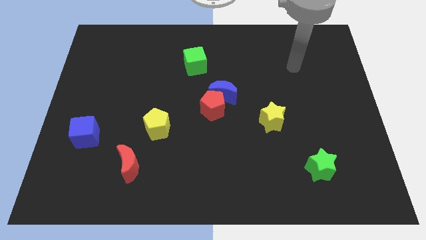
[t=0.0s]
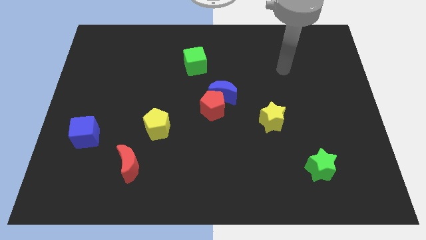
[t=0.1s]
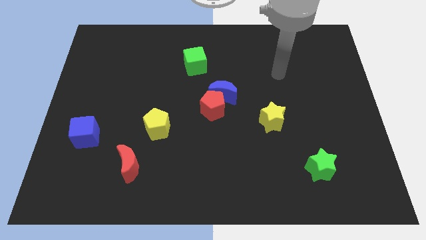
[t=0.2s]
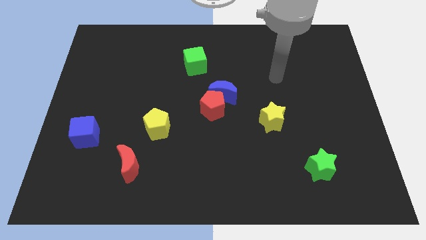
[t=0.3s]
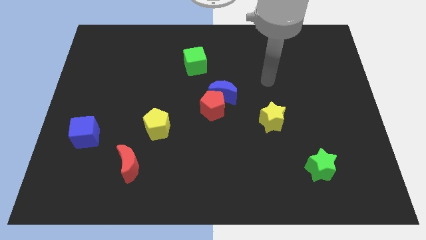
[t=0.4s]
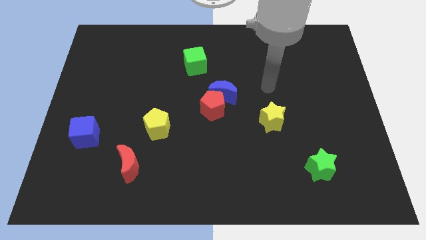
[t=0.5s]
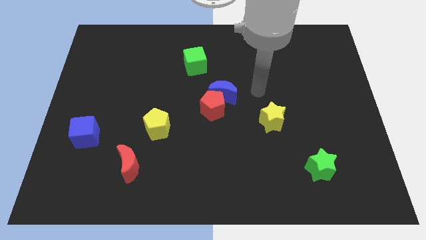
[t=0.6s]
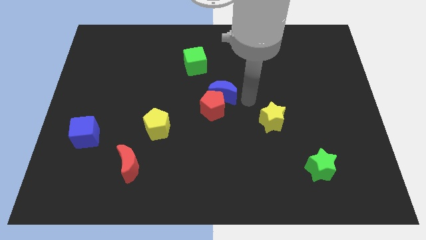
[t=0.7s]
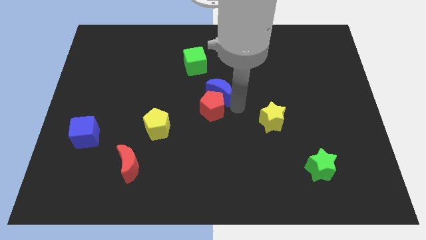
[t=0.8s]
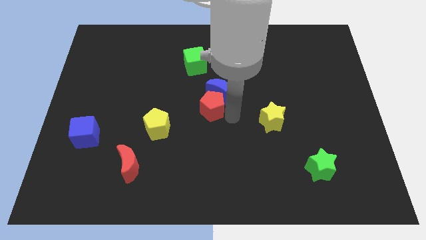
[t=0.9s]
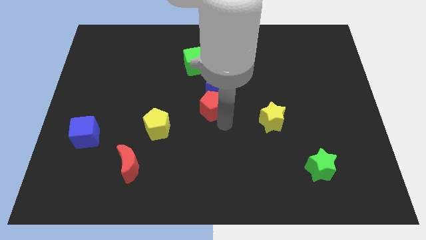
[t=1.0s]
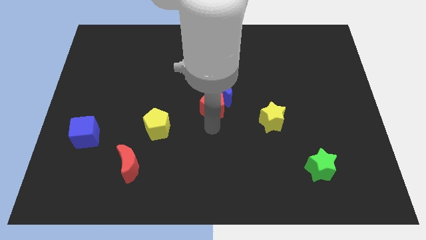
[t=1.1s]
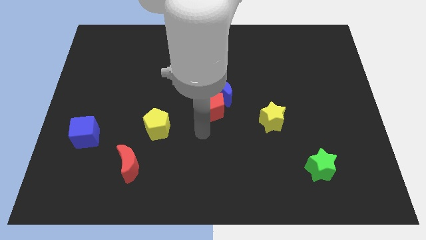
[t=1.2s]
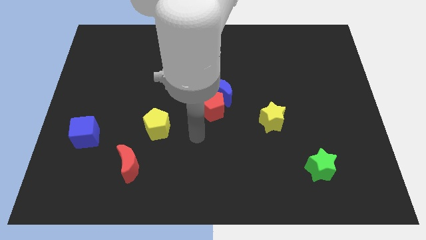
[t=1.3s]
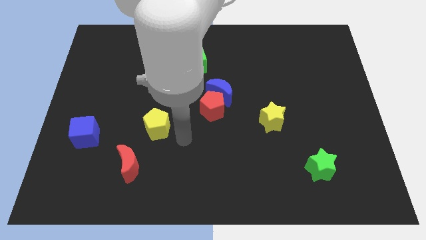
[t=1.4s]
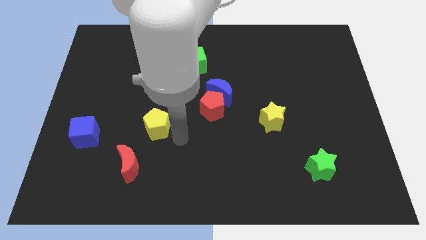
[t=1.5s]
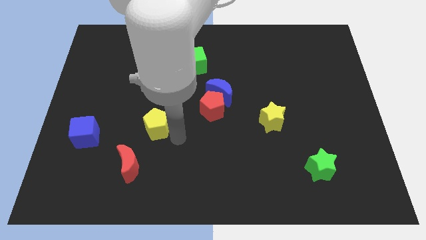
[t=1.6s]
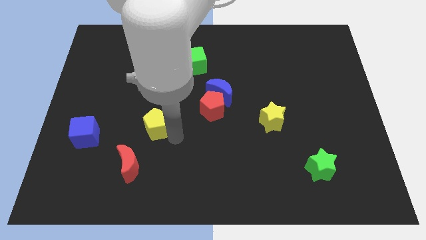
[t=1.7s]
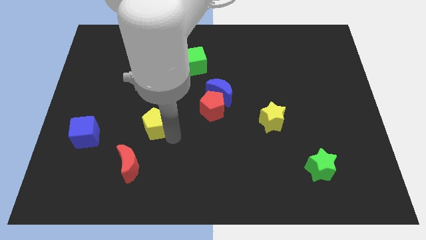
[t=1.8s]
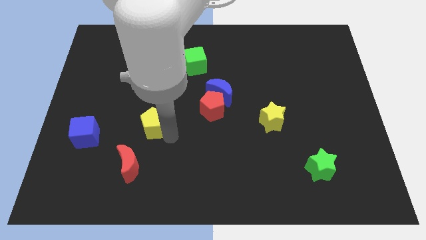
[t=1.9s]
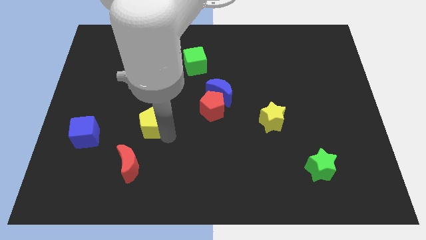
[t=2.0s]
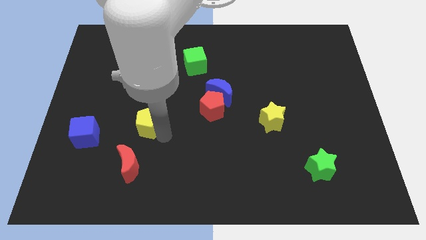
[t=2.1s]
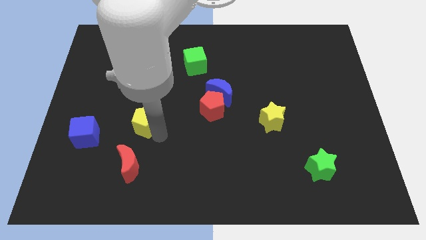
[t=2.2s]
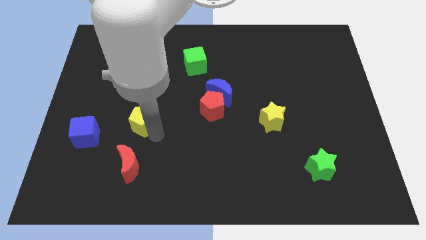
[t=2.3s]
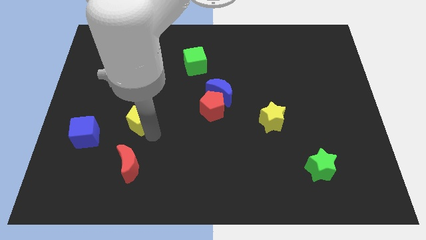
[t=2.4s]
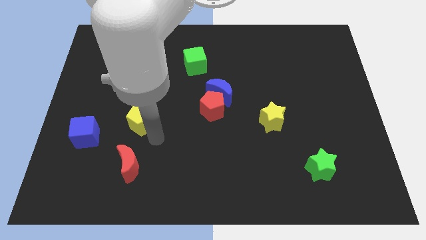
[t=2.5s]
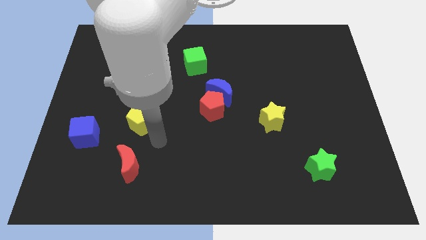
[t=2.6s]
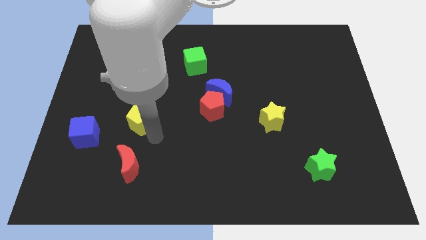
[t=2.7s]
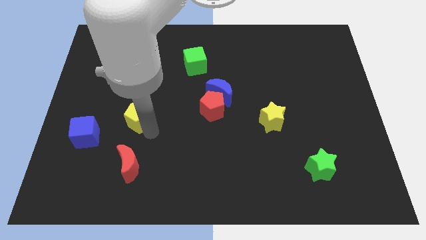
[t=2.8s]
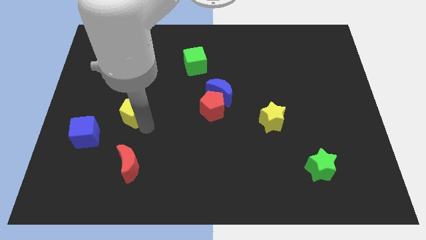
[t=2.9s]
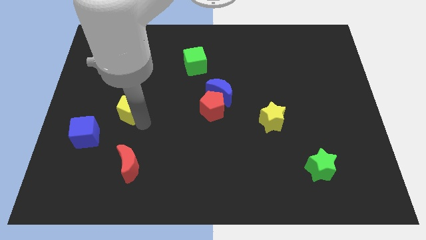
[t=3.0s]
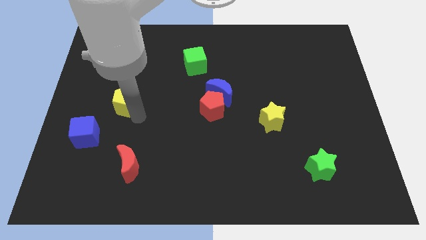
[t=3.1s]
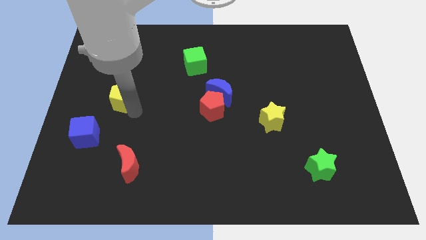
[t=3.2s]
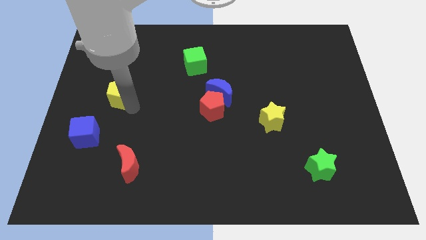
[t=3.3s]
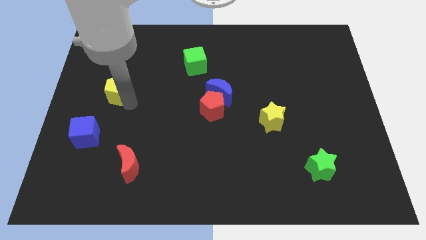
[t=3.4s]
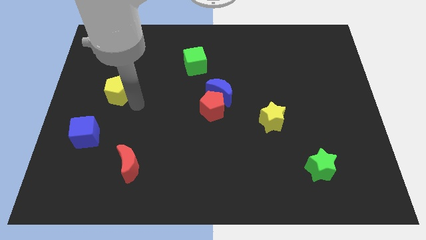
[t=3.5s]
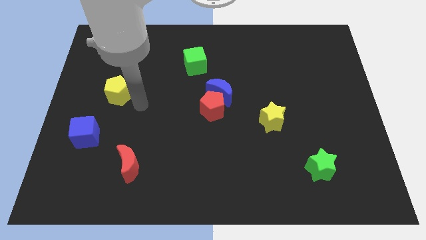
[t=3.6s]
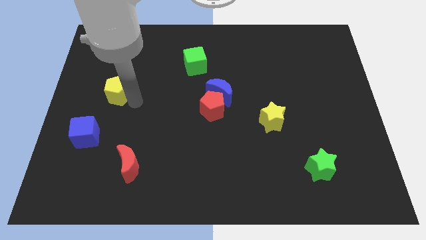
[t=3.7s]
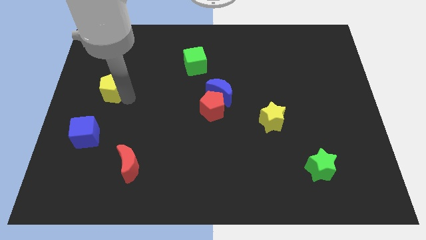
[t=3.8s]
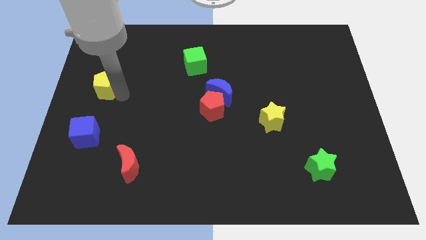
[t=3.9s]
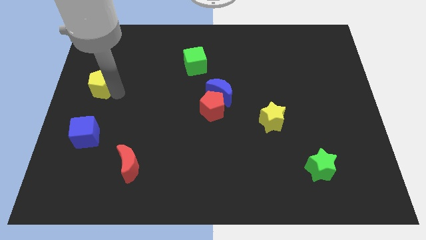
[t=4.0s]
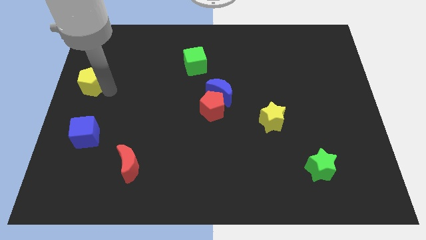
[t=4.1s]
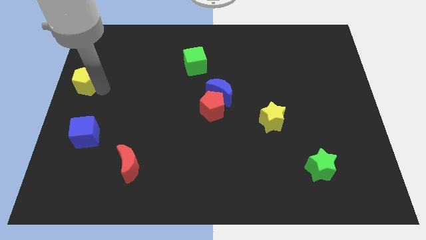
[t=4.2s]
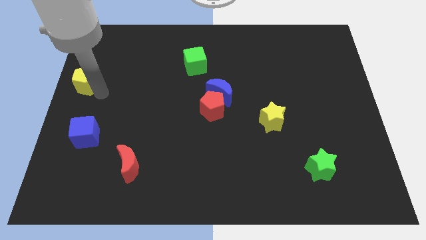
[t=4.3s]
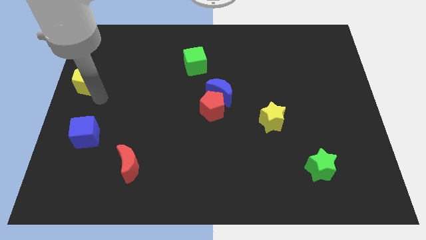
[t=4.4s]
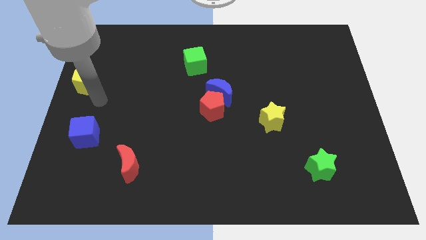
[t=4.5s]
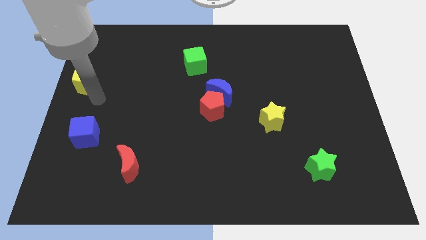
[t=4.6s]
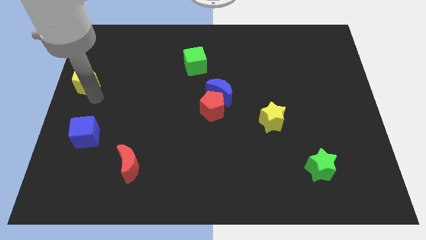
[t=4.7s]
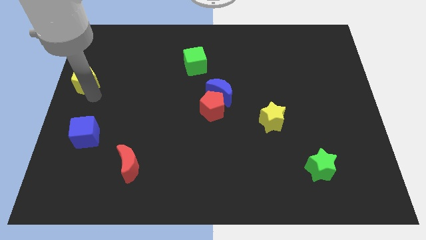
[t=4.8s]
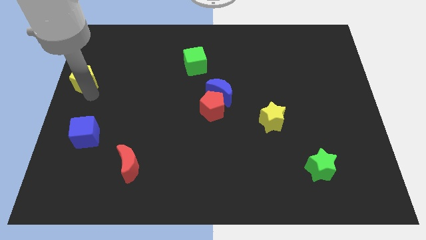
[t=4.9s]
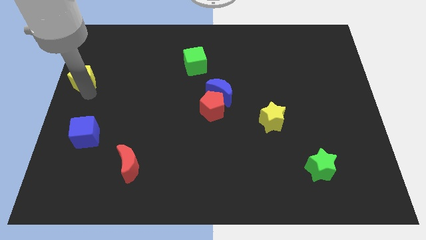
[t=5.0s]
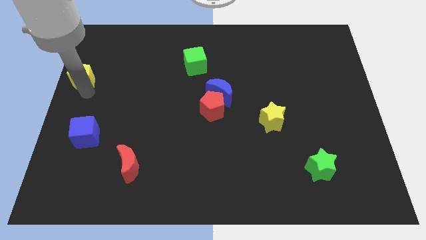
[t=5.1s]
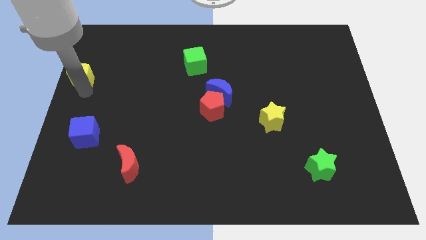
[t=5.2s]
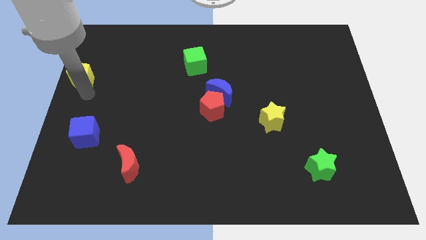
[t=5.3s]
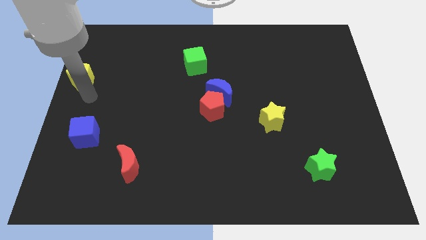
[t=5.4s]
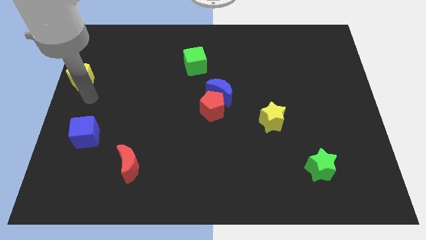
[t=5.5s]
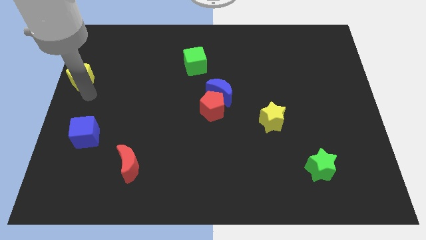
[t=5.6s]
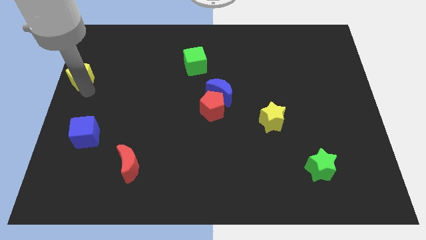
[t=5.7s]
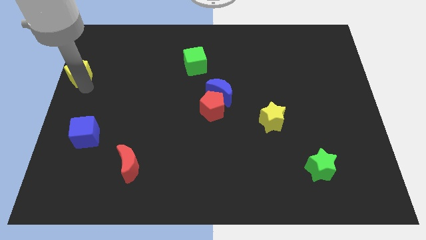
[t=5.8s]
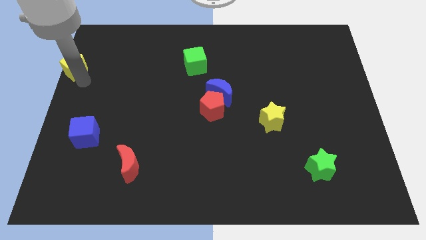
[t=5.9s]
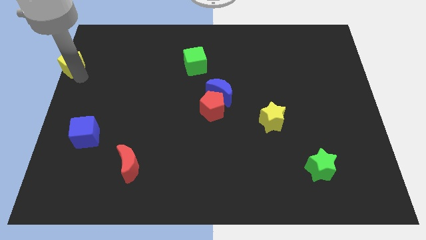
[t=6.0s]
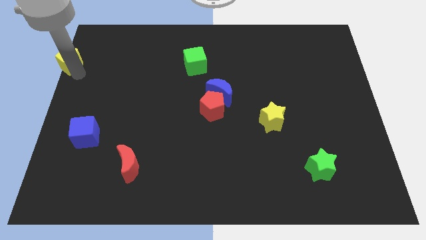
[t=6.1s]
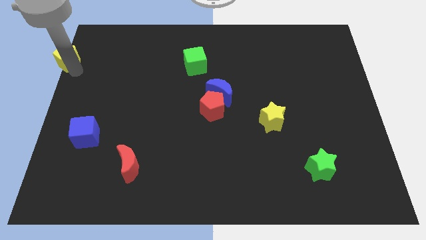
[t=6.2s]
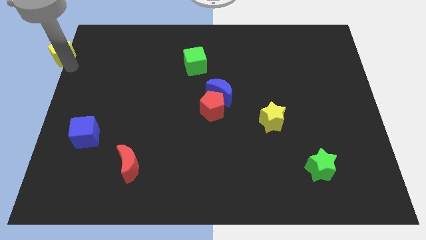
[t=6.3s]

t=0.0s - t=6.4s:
slide the yellow pentagon to the top left of the board
